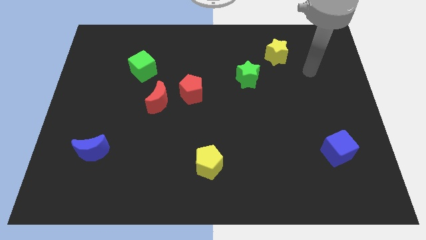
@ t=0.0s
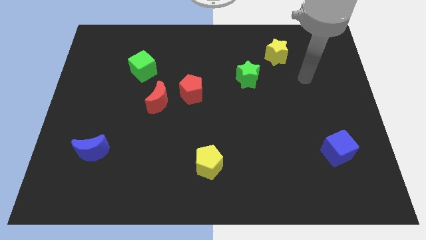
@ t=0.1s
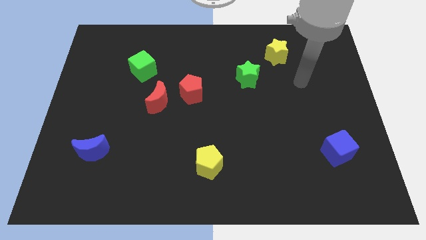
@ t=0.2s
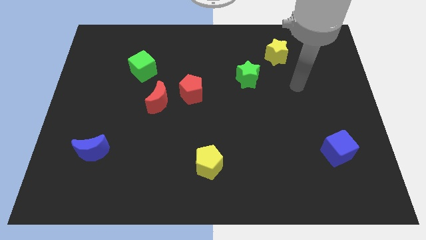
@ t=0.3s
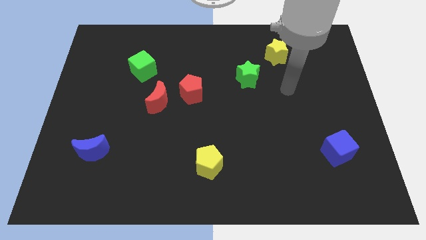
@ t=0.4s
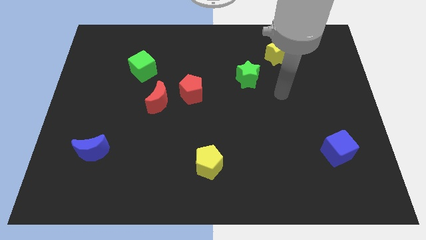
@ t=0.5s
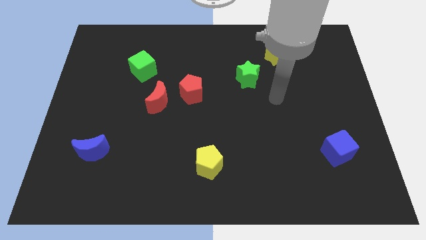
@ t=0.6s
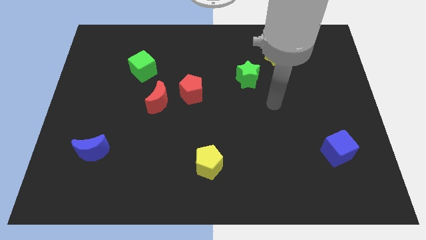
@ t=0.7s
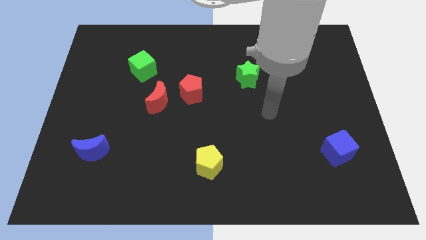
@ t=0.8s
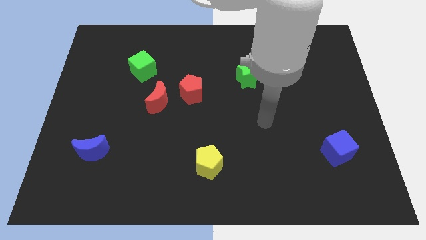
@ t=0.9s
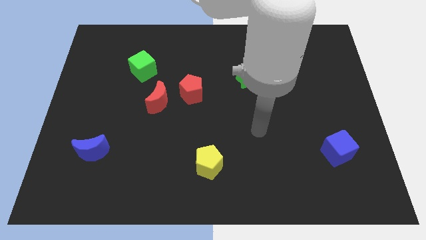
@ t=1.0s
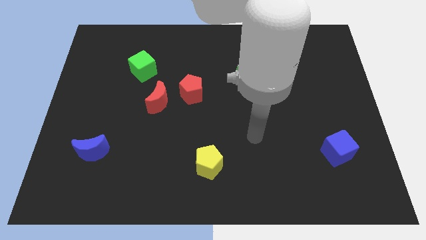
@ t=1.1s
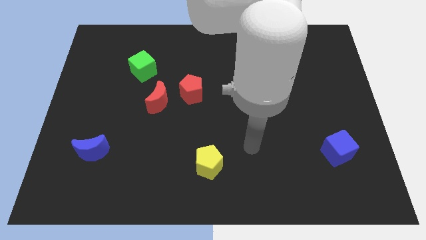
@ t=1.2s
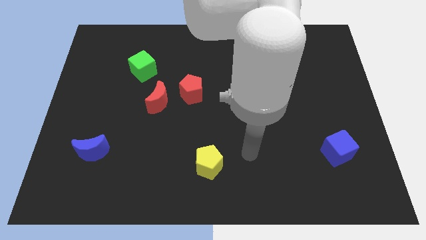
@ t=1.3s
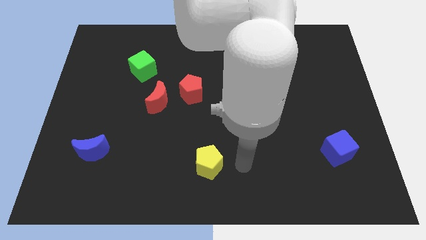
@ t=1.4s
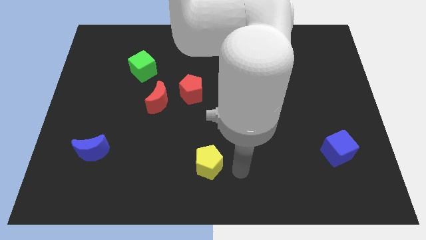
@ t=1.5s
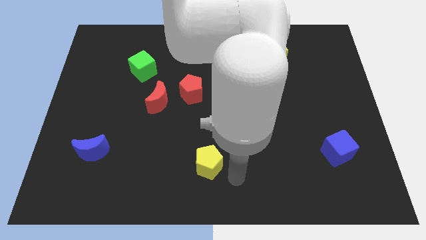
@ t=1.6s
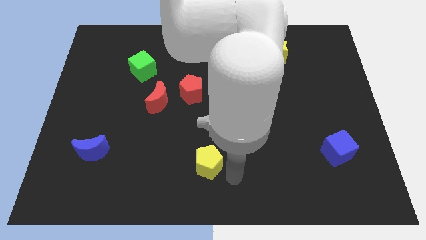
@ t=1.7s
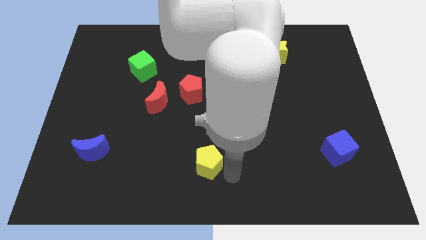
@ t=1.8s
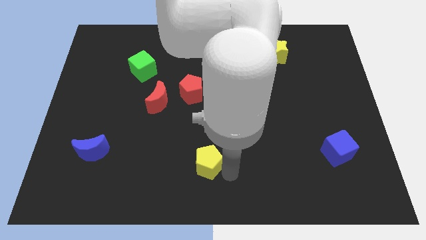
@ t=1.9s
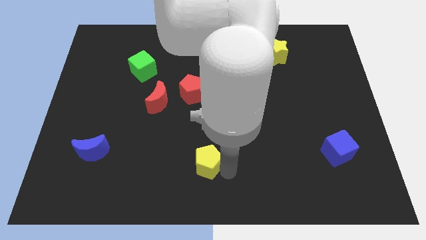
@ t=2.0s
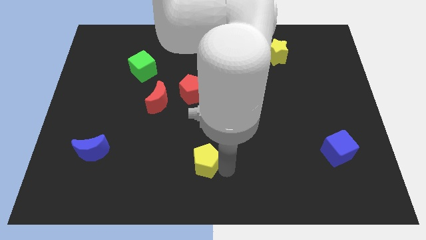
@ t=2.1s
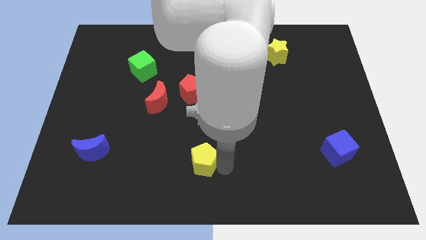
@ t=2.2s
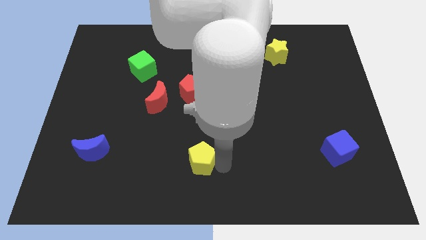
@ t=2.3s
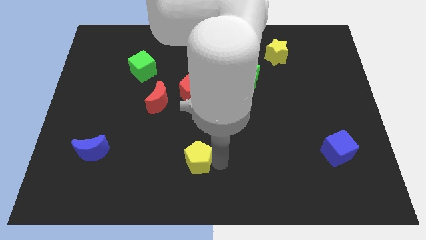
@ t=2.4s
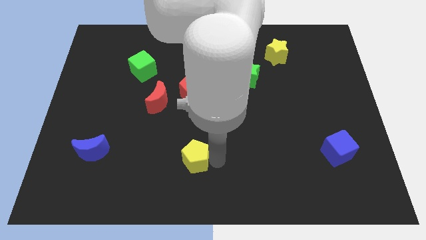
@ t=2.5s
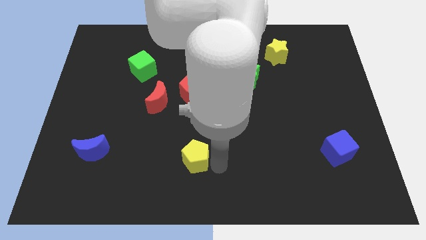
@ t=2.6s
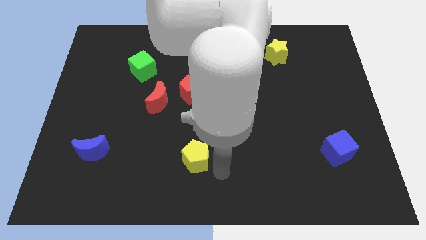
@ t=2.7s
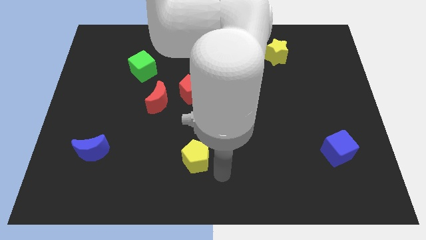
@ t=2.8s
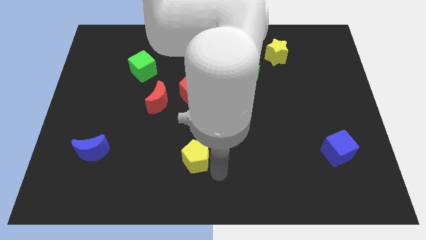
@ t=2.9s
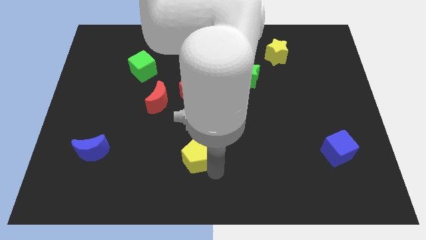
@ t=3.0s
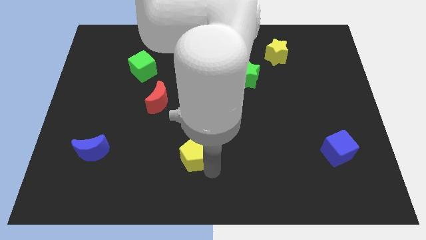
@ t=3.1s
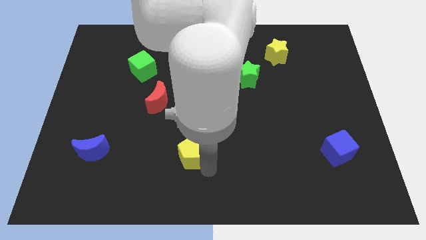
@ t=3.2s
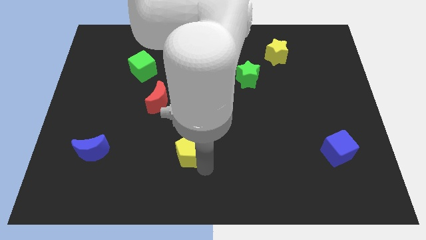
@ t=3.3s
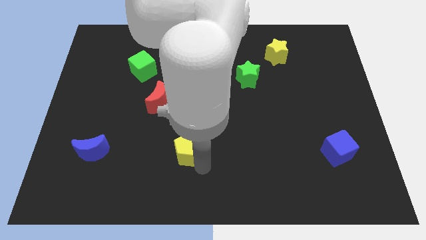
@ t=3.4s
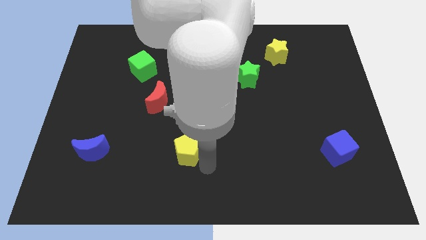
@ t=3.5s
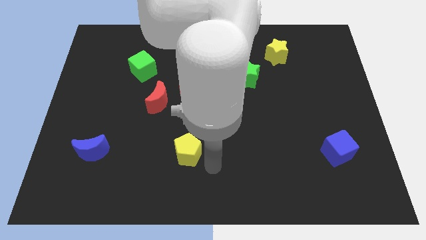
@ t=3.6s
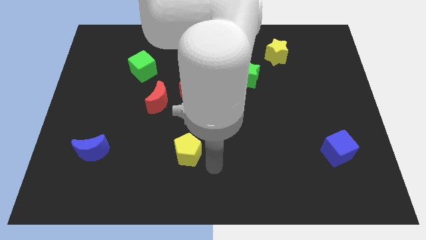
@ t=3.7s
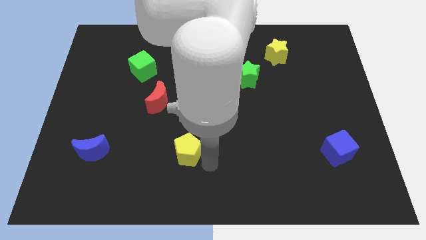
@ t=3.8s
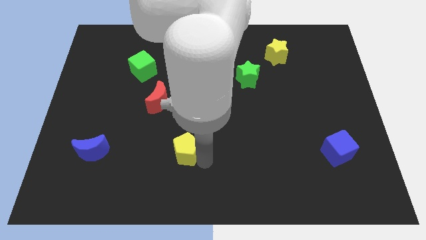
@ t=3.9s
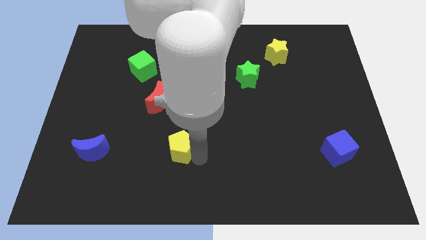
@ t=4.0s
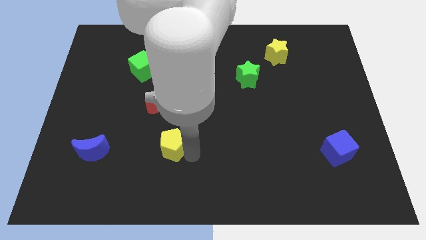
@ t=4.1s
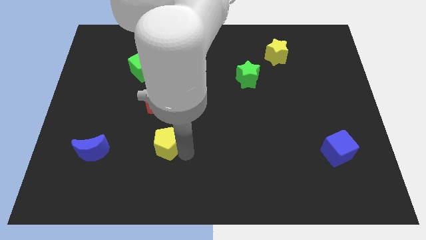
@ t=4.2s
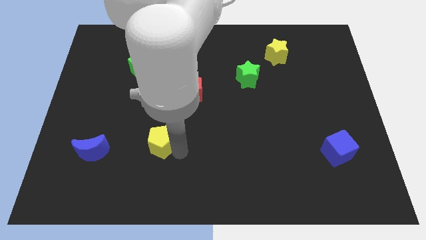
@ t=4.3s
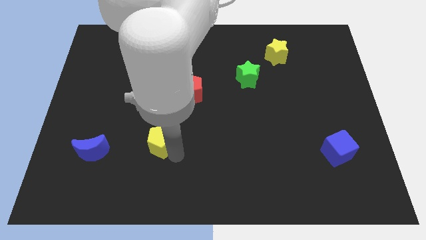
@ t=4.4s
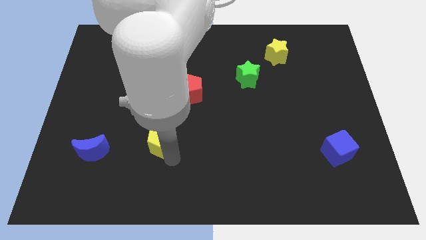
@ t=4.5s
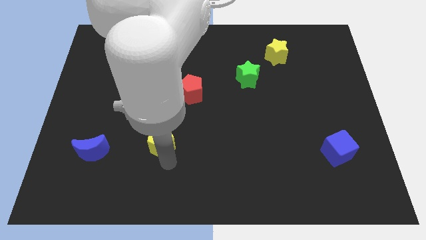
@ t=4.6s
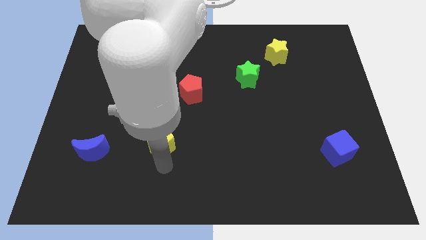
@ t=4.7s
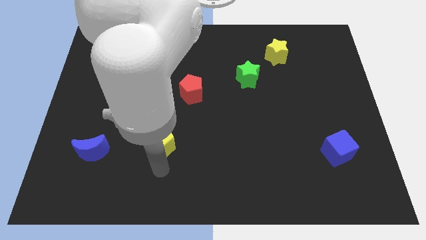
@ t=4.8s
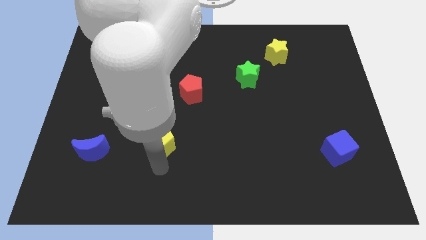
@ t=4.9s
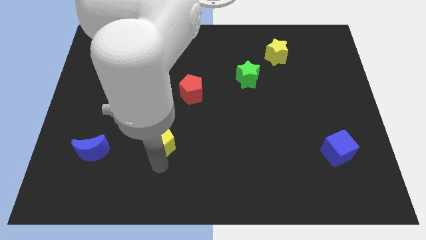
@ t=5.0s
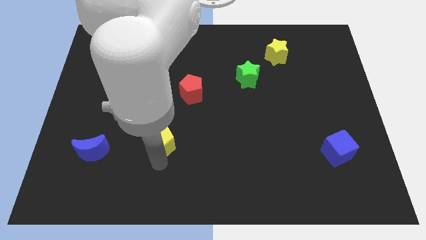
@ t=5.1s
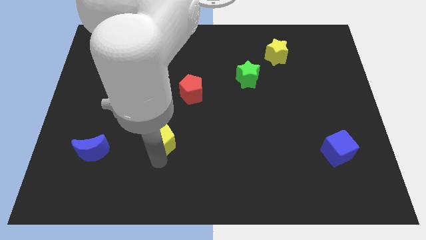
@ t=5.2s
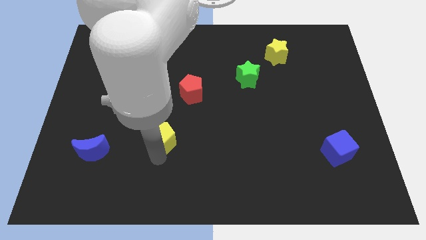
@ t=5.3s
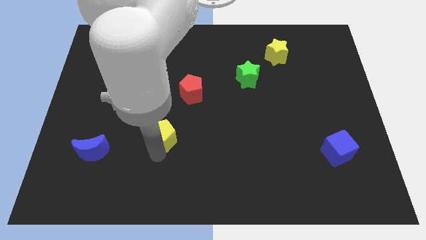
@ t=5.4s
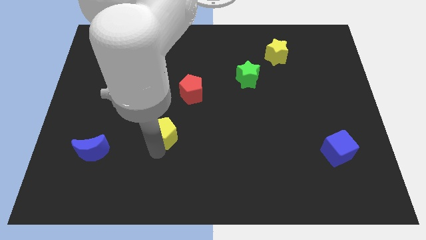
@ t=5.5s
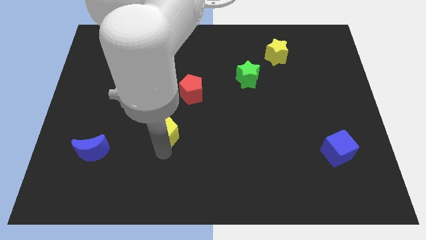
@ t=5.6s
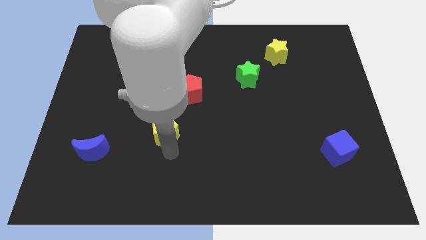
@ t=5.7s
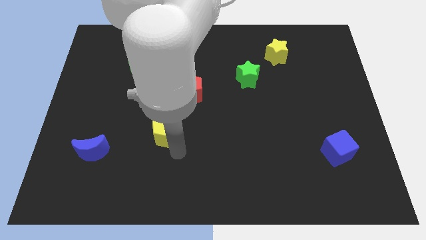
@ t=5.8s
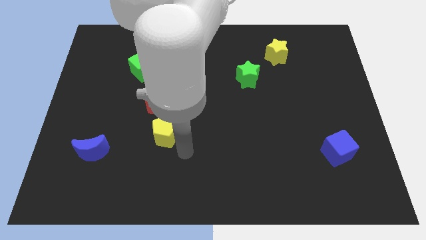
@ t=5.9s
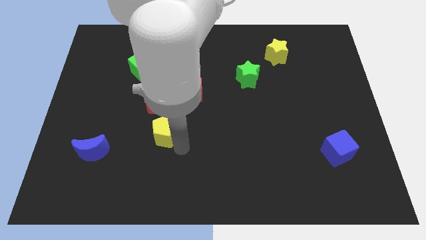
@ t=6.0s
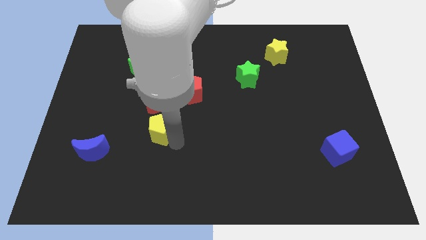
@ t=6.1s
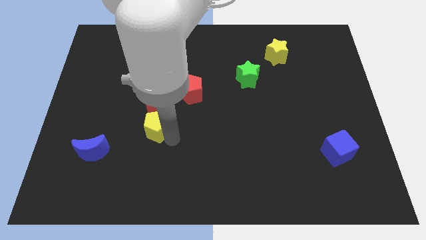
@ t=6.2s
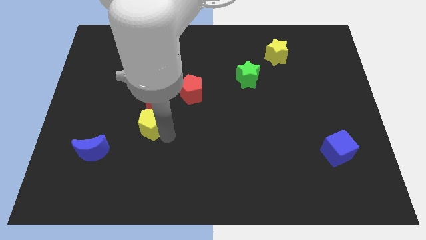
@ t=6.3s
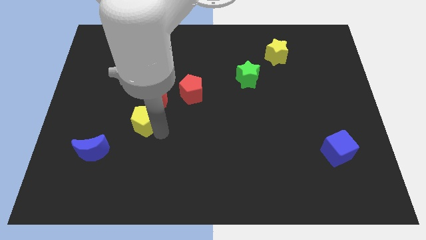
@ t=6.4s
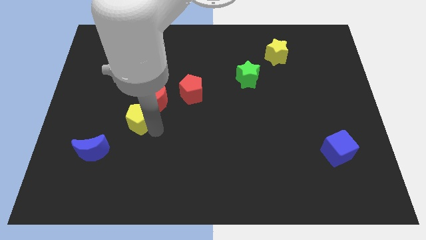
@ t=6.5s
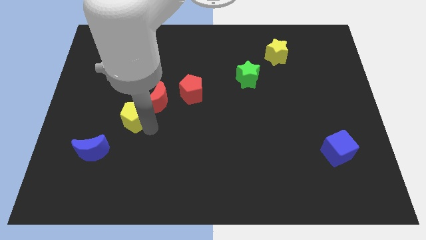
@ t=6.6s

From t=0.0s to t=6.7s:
slide the yellow pentagon upwards and left

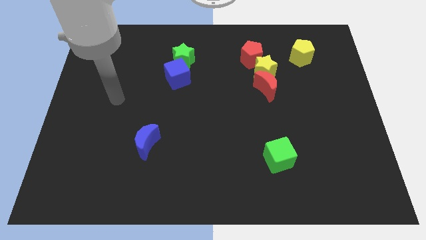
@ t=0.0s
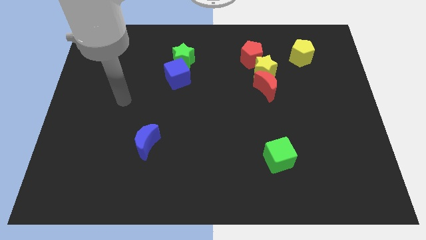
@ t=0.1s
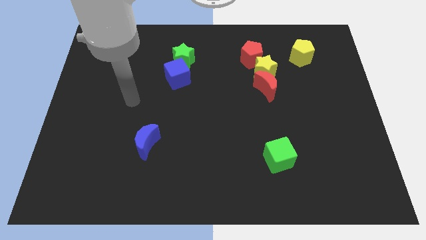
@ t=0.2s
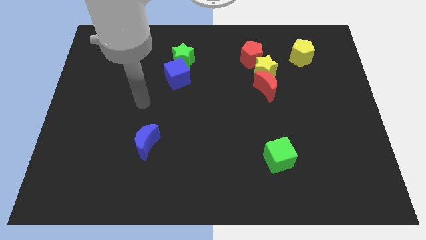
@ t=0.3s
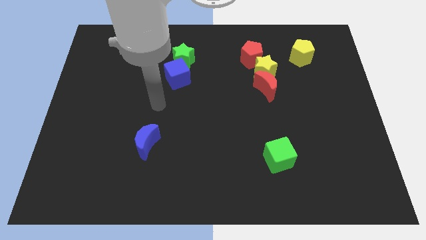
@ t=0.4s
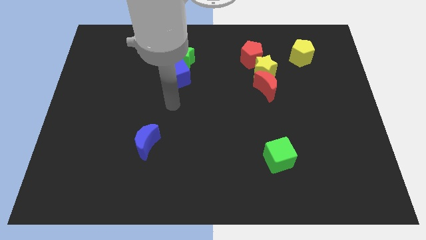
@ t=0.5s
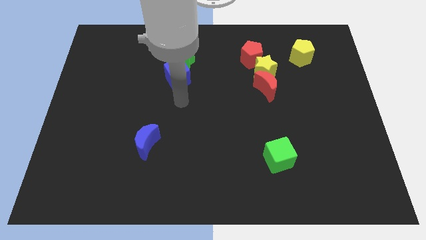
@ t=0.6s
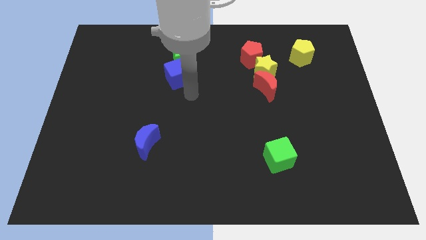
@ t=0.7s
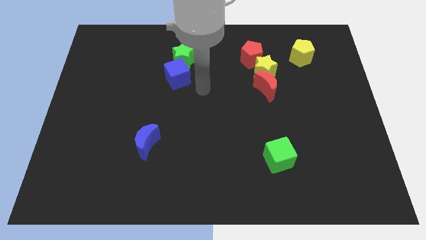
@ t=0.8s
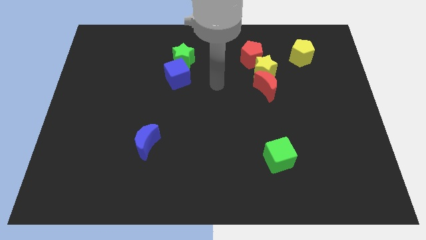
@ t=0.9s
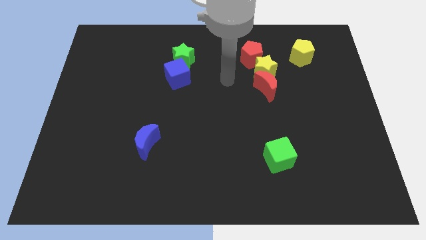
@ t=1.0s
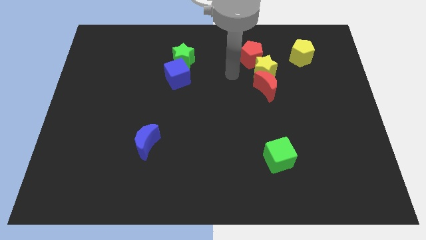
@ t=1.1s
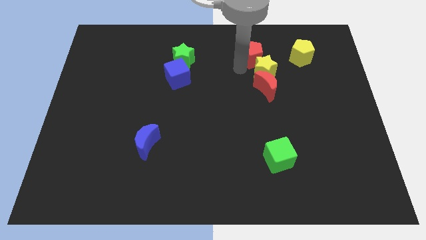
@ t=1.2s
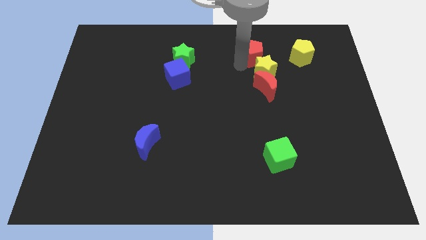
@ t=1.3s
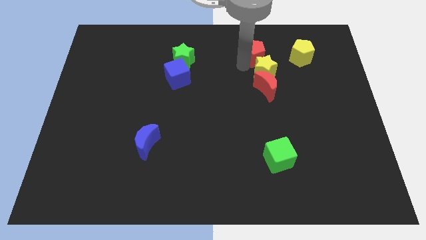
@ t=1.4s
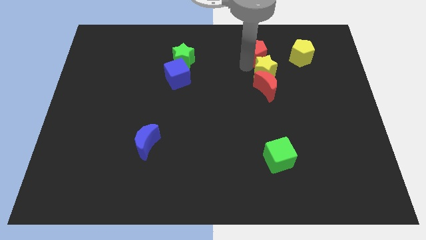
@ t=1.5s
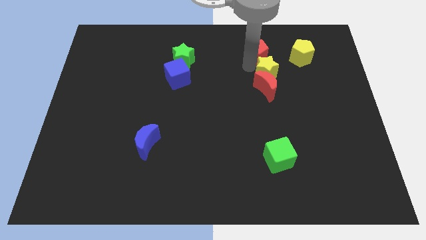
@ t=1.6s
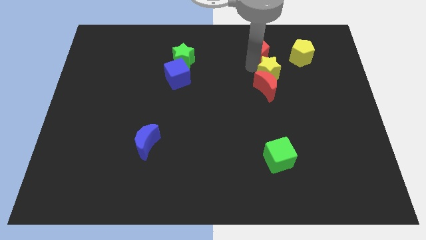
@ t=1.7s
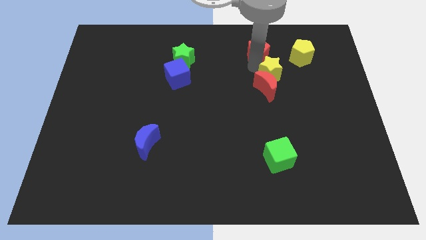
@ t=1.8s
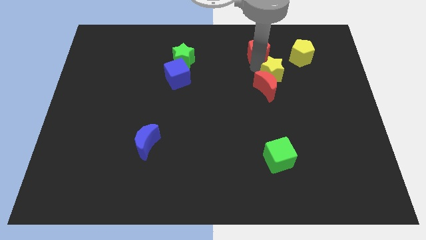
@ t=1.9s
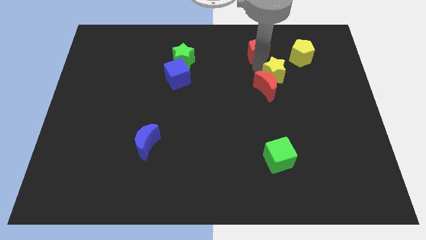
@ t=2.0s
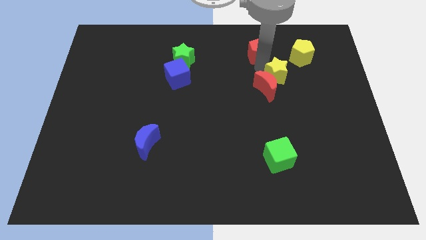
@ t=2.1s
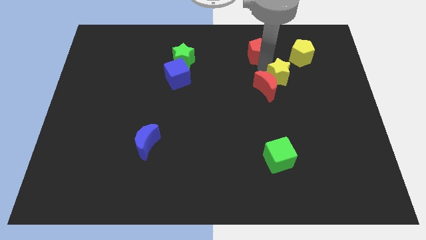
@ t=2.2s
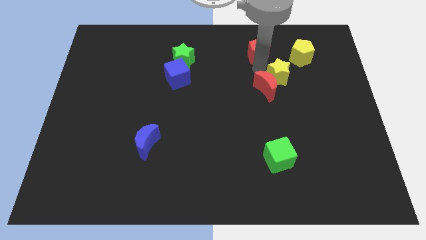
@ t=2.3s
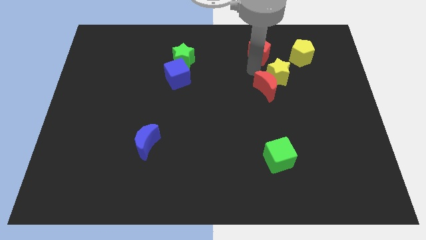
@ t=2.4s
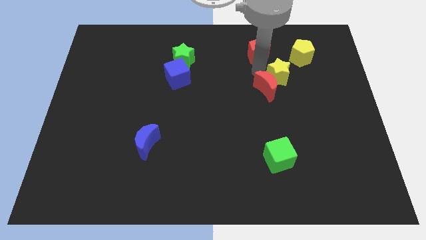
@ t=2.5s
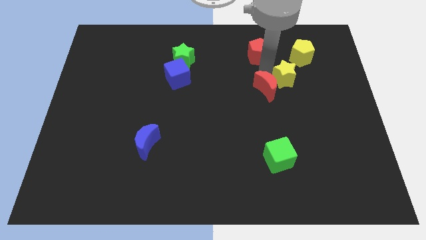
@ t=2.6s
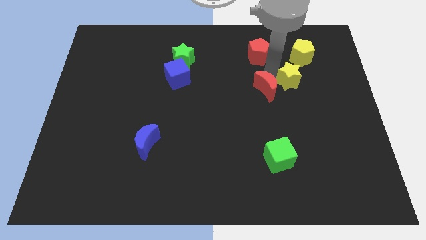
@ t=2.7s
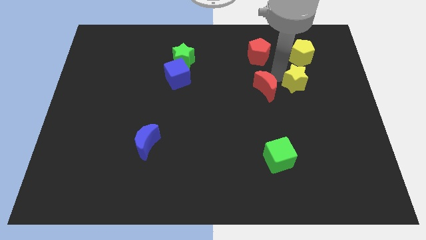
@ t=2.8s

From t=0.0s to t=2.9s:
slightly slide the yellow star downwards and then to the right
